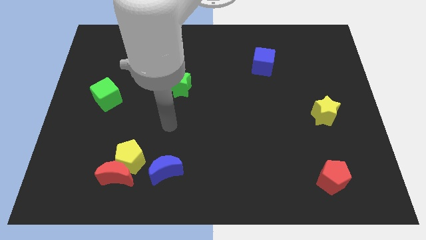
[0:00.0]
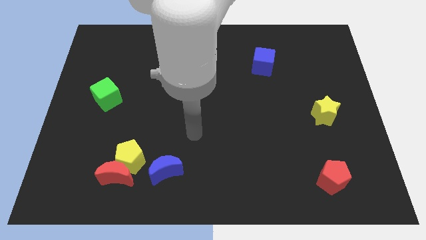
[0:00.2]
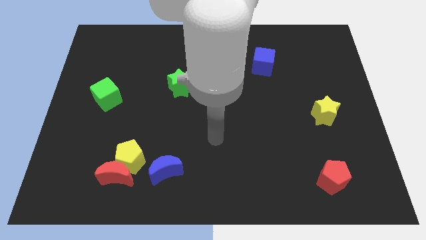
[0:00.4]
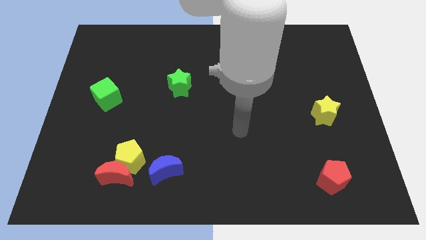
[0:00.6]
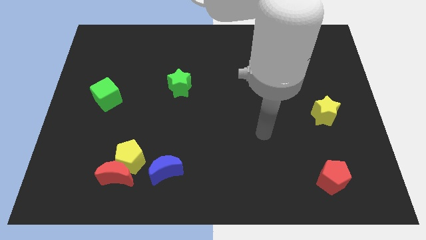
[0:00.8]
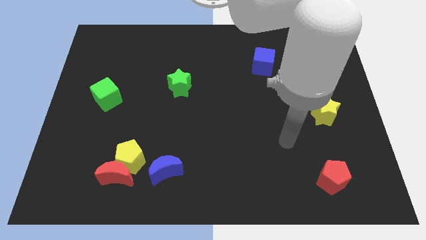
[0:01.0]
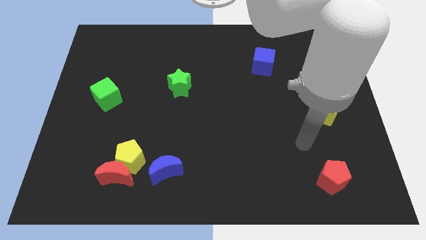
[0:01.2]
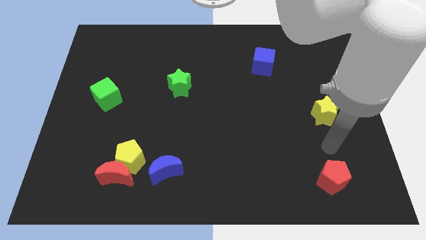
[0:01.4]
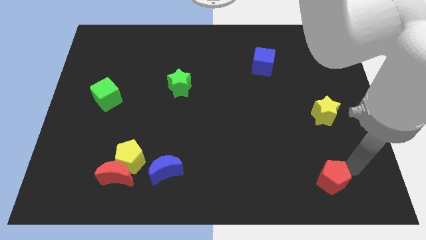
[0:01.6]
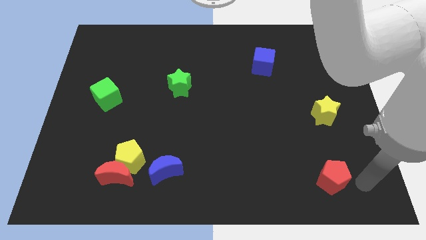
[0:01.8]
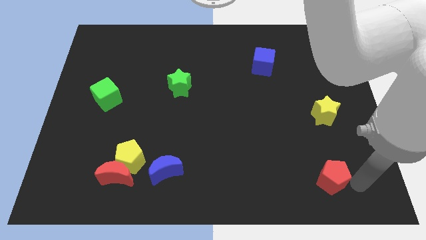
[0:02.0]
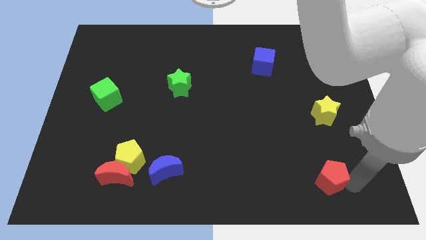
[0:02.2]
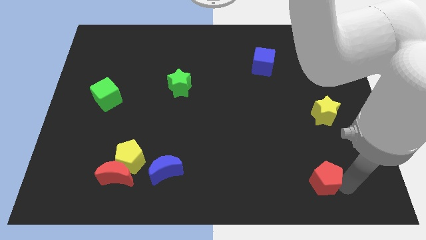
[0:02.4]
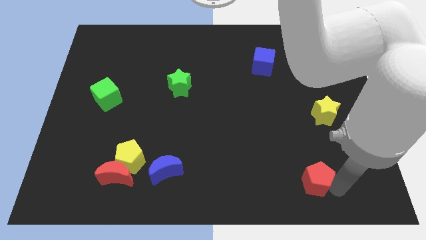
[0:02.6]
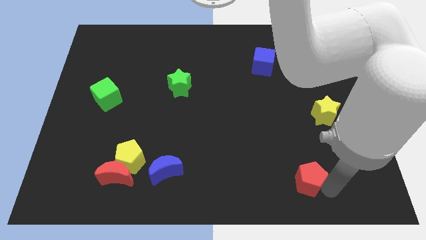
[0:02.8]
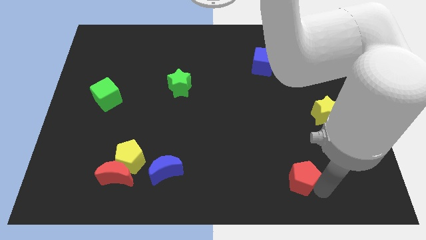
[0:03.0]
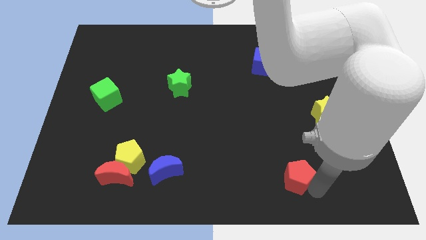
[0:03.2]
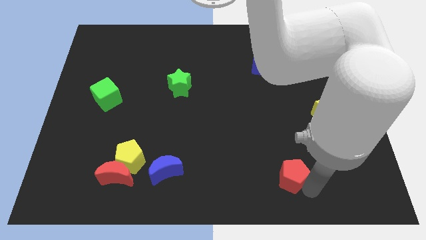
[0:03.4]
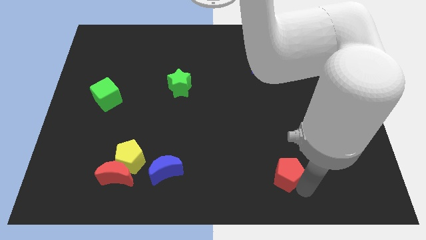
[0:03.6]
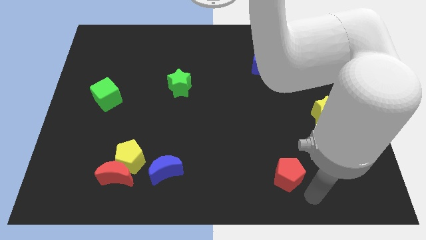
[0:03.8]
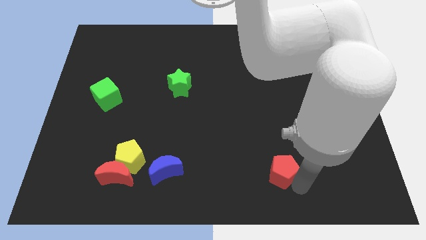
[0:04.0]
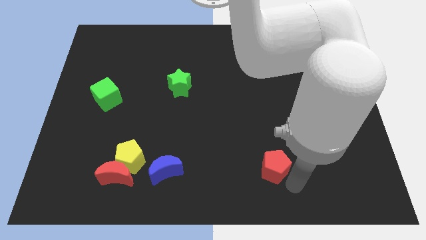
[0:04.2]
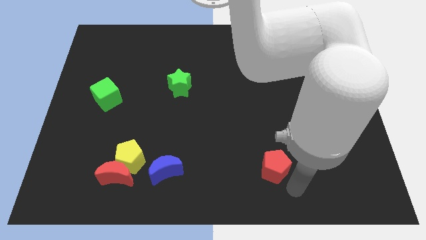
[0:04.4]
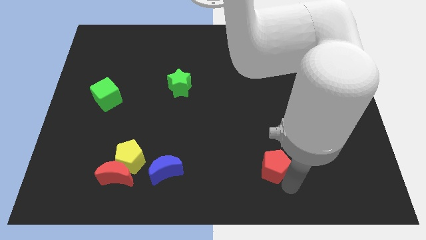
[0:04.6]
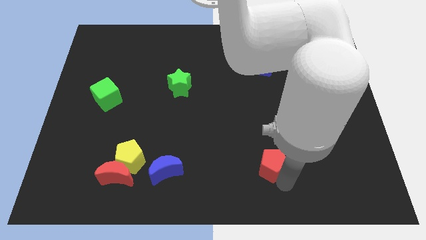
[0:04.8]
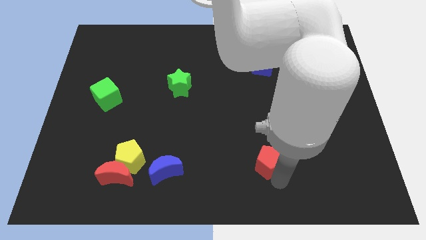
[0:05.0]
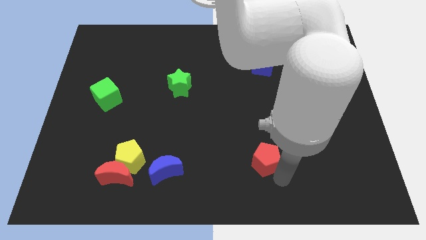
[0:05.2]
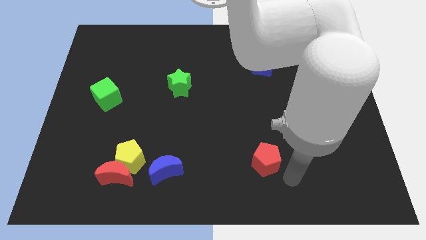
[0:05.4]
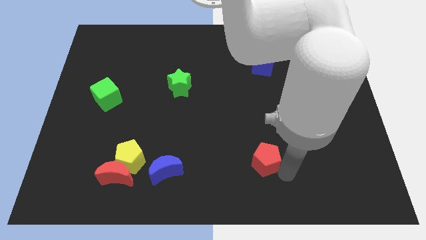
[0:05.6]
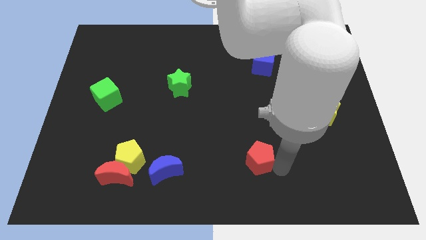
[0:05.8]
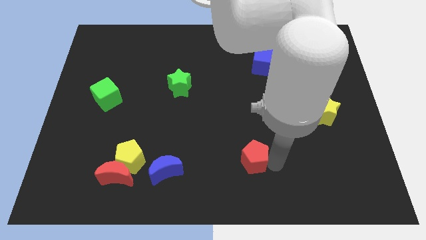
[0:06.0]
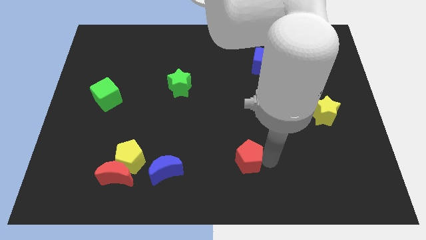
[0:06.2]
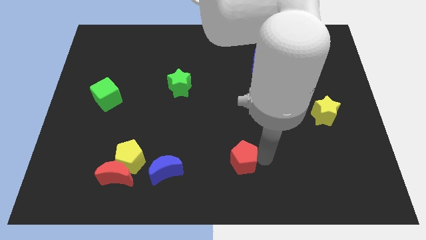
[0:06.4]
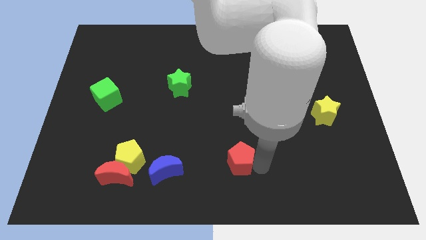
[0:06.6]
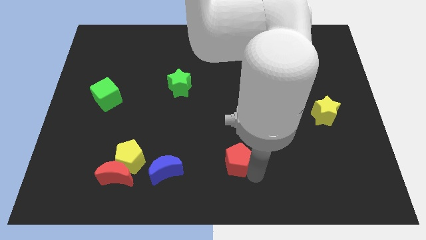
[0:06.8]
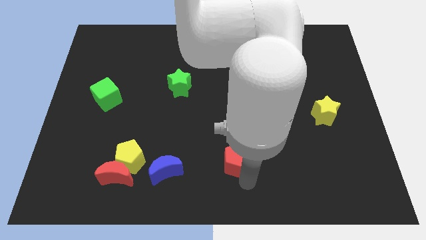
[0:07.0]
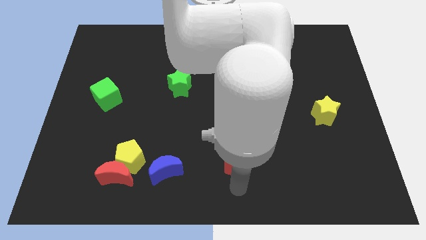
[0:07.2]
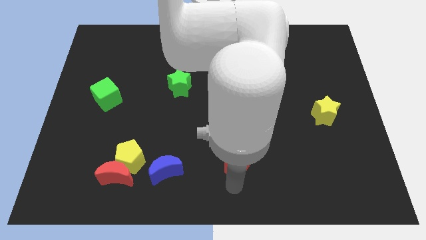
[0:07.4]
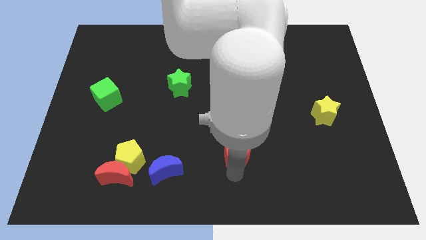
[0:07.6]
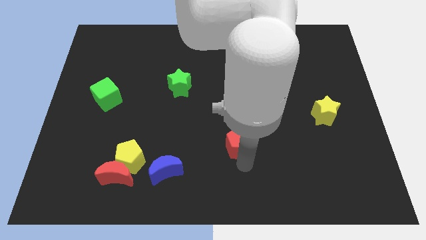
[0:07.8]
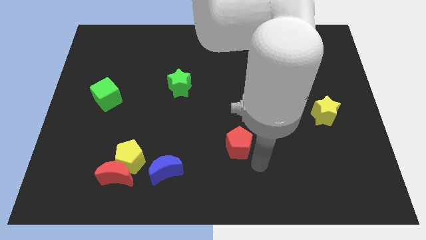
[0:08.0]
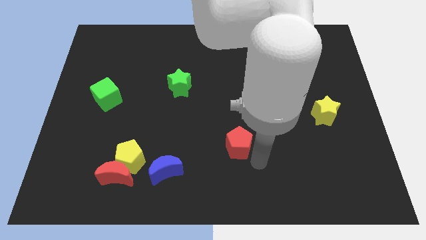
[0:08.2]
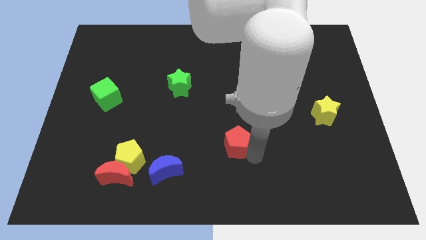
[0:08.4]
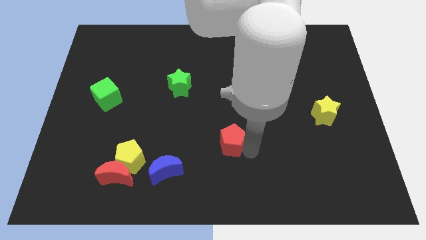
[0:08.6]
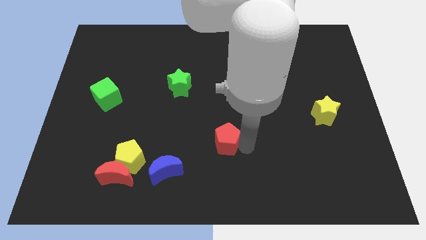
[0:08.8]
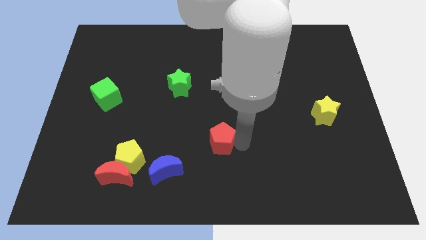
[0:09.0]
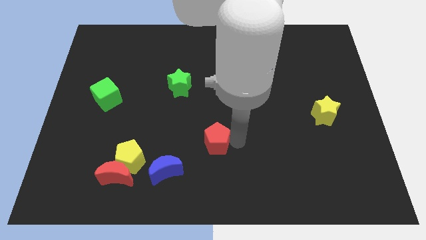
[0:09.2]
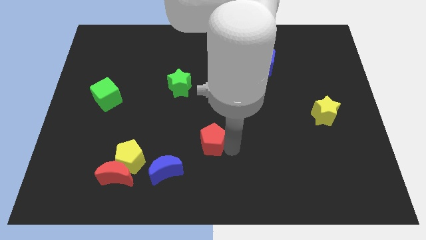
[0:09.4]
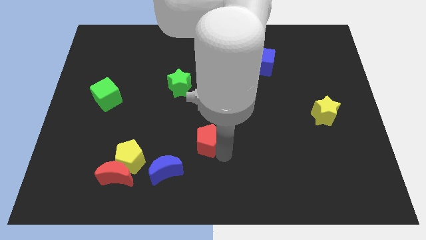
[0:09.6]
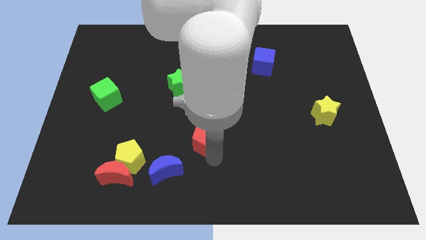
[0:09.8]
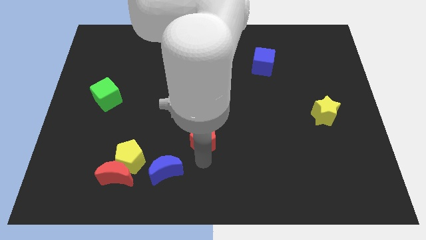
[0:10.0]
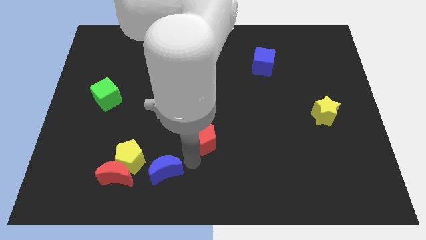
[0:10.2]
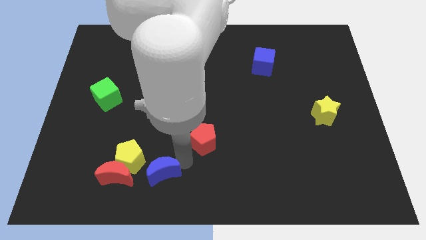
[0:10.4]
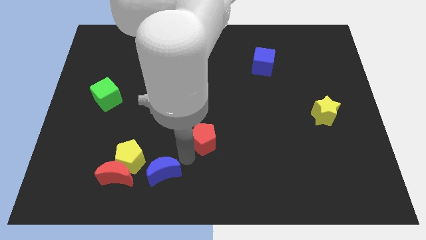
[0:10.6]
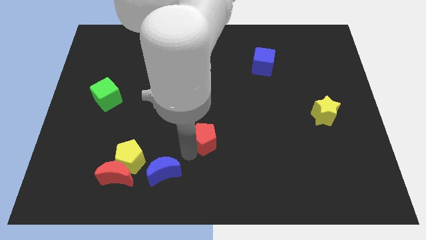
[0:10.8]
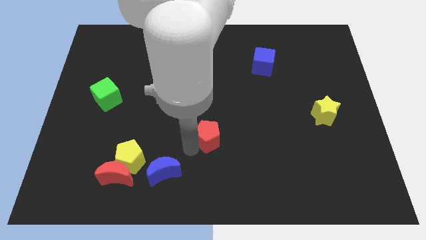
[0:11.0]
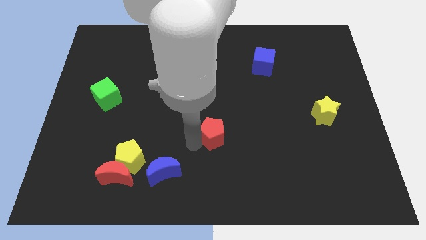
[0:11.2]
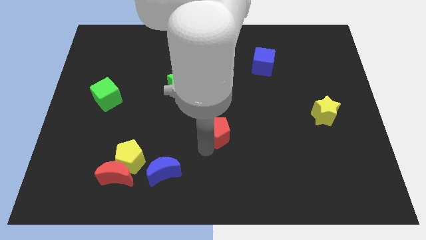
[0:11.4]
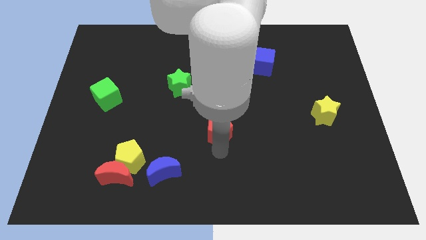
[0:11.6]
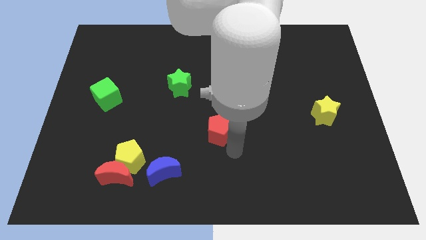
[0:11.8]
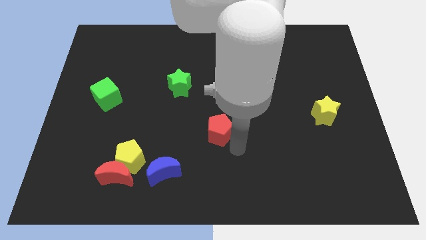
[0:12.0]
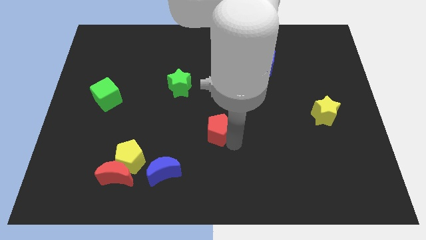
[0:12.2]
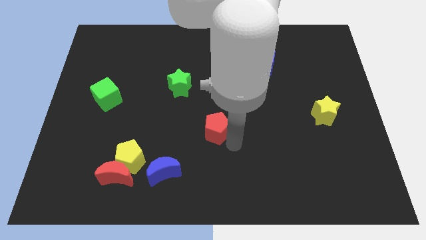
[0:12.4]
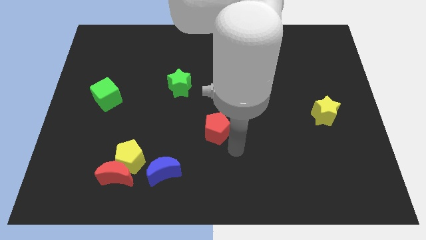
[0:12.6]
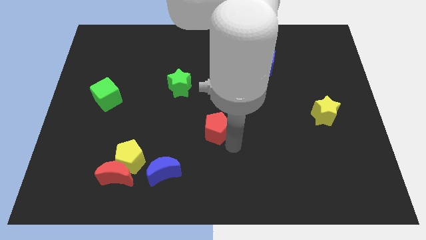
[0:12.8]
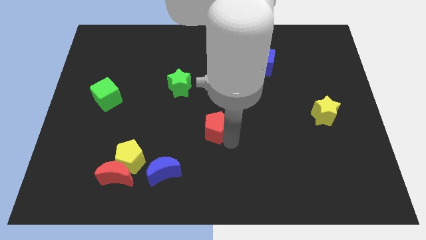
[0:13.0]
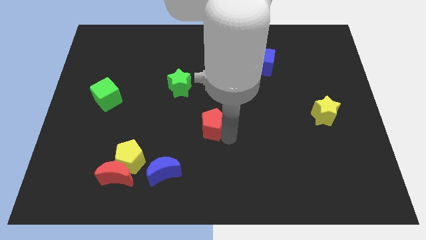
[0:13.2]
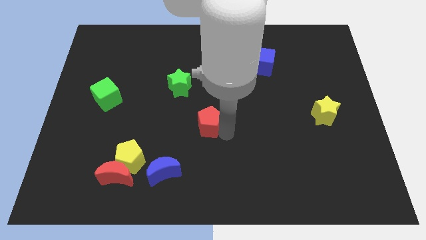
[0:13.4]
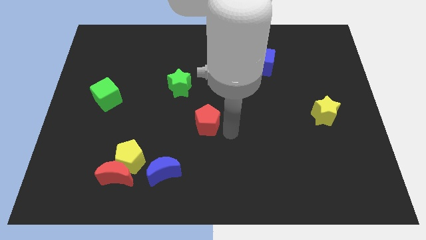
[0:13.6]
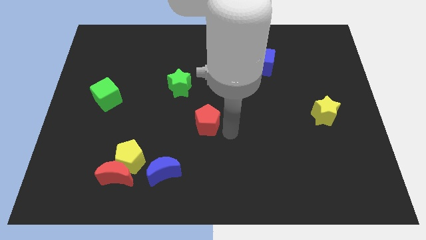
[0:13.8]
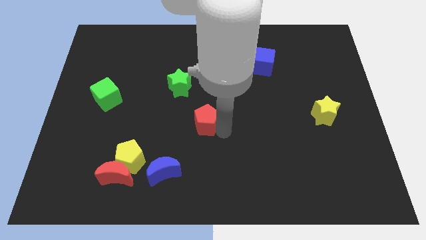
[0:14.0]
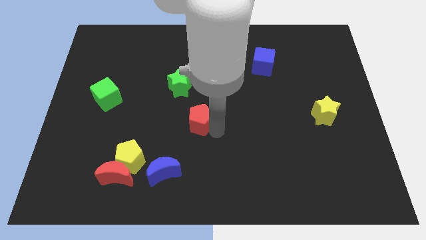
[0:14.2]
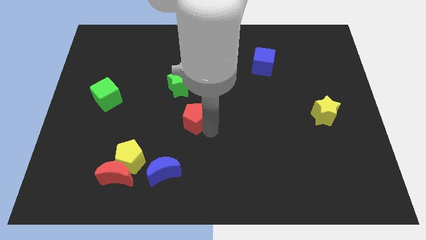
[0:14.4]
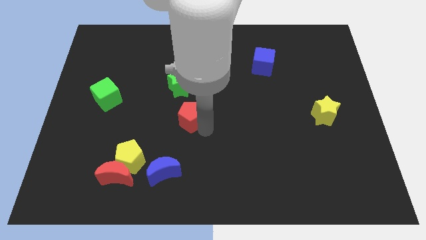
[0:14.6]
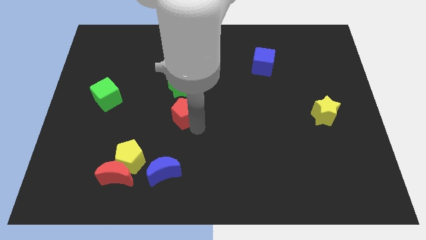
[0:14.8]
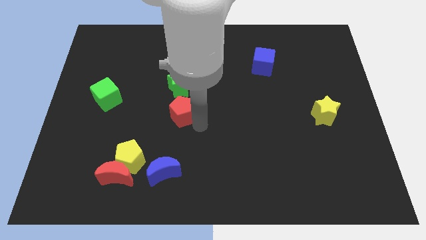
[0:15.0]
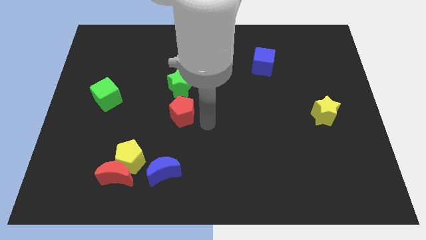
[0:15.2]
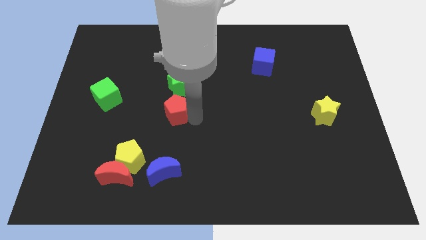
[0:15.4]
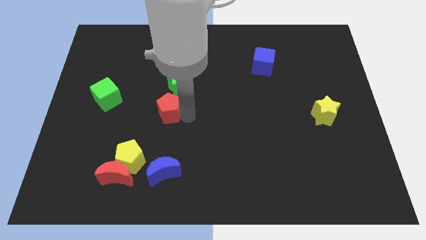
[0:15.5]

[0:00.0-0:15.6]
push the red pentagon diagonally down and to the left of the green star
